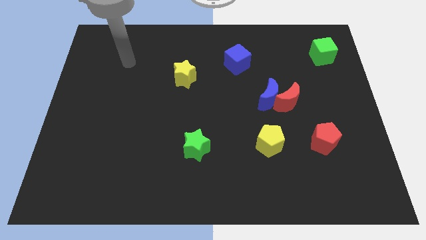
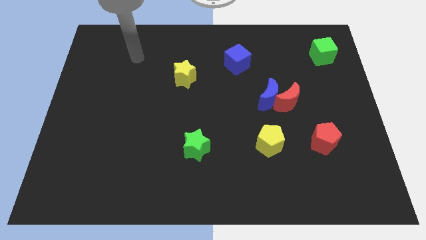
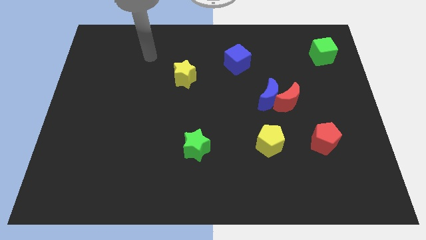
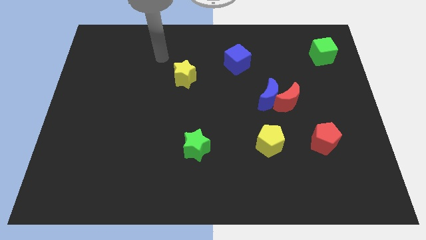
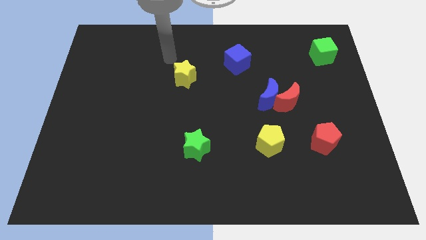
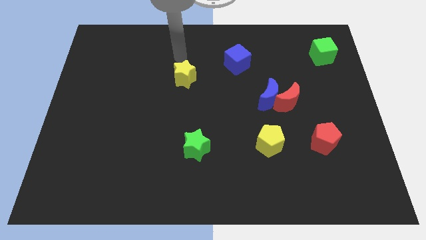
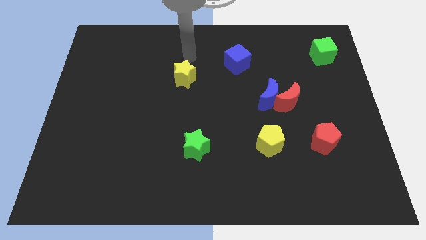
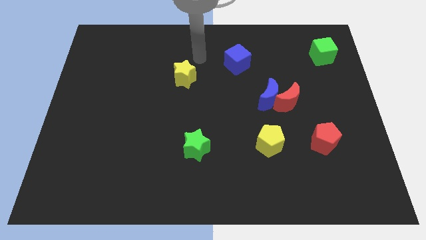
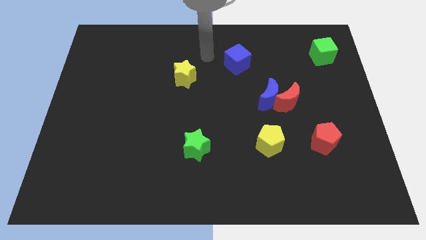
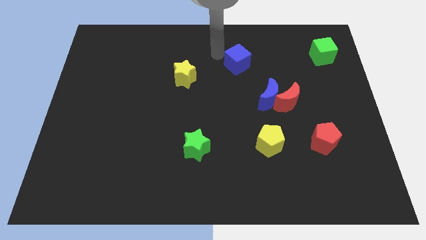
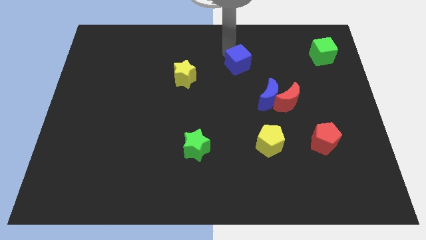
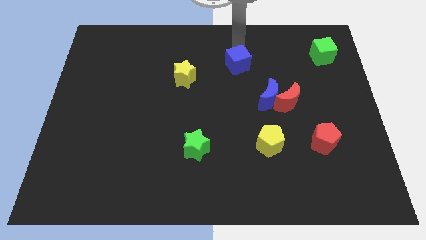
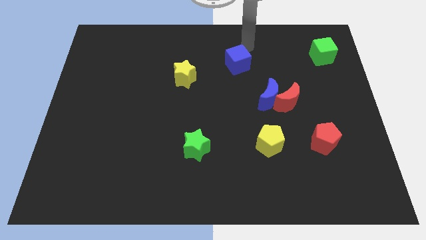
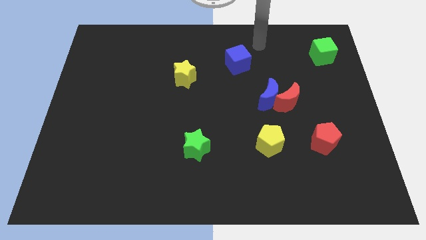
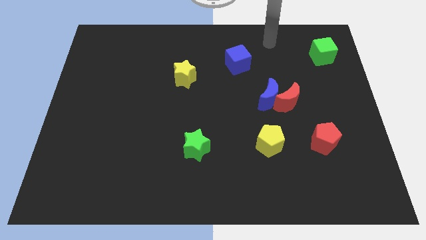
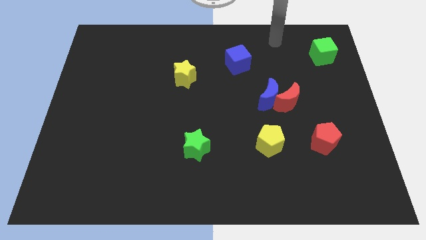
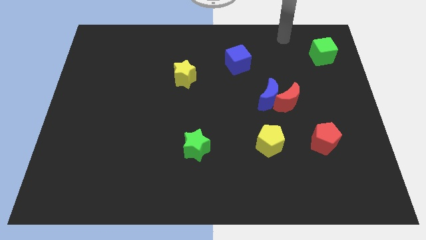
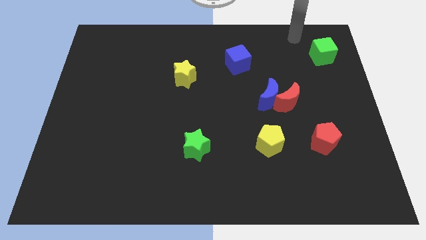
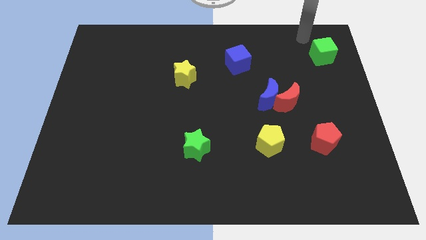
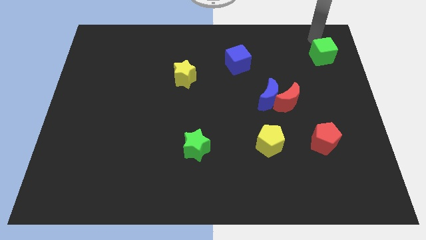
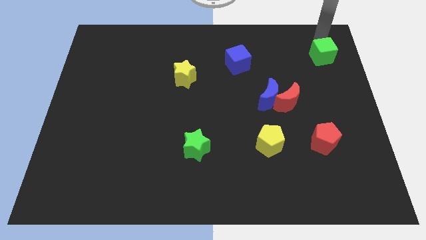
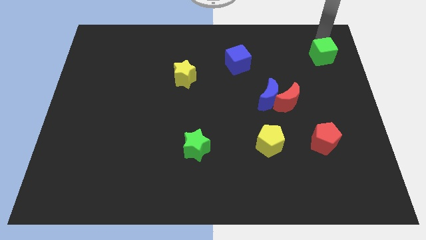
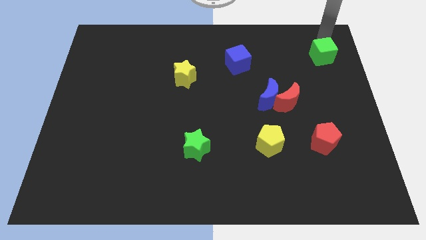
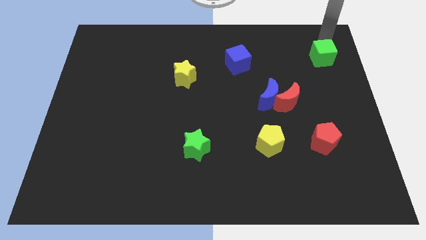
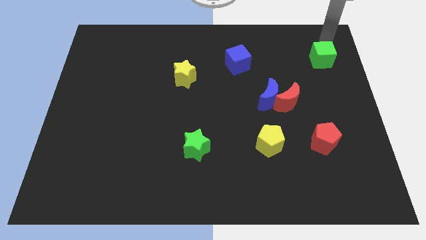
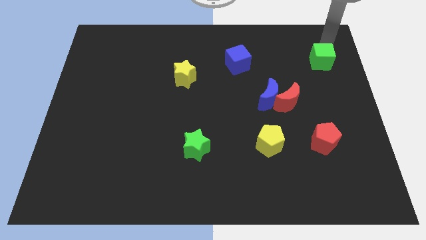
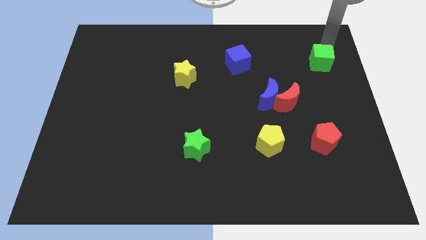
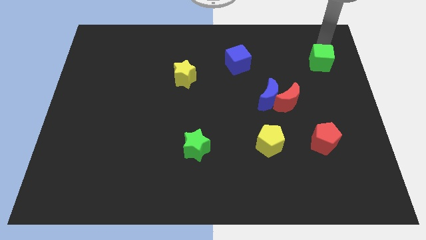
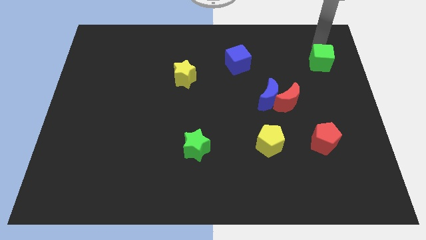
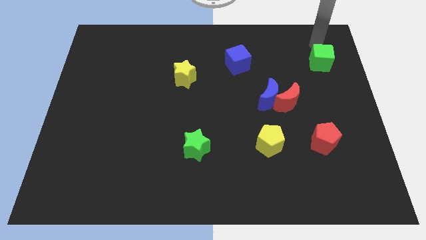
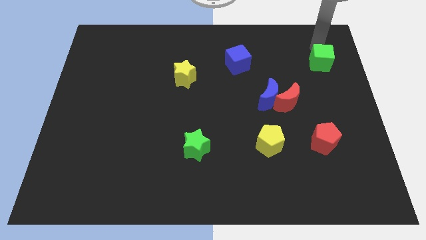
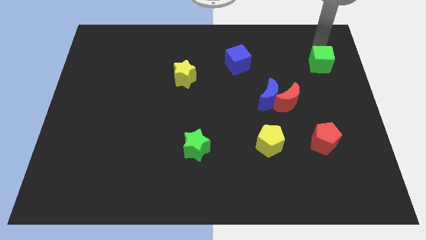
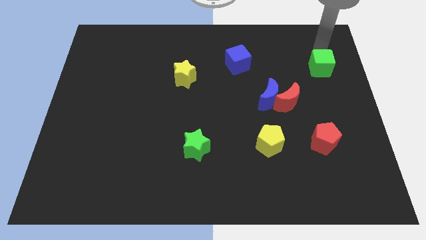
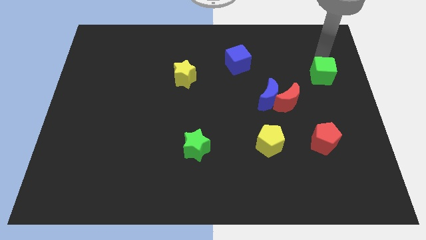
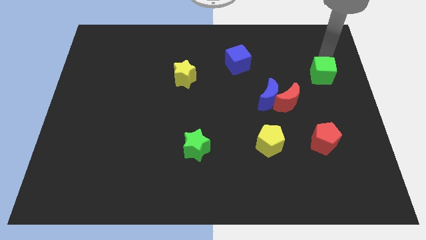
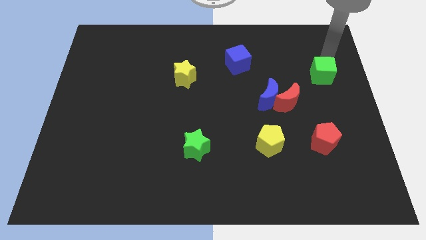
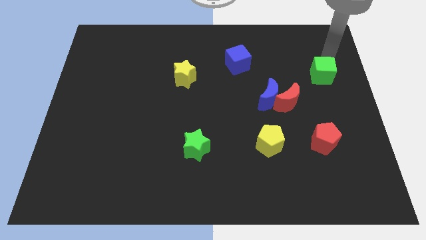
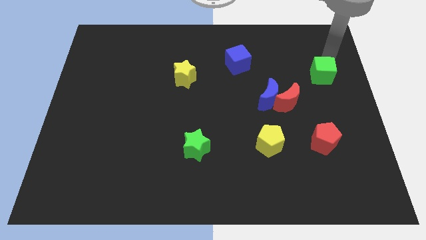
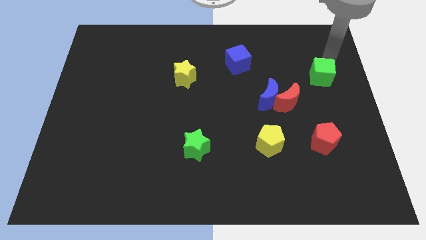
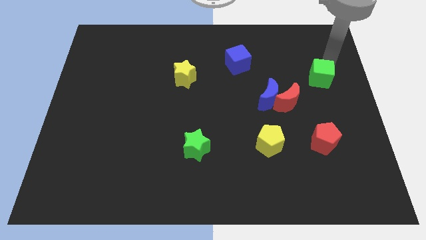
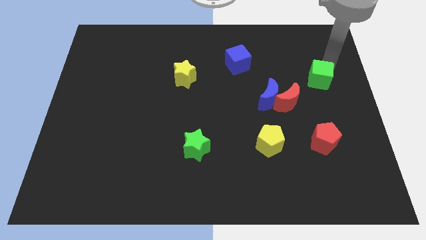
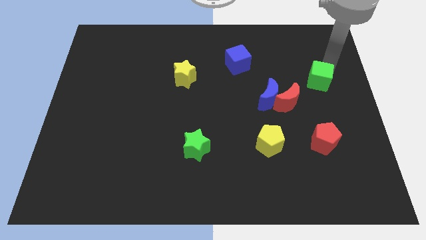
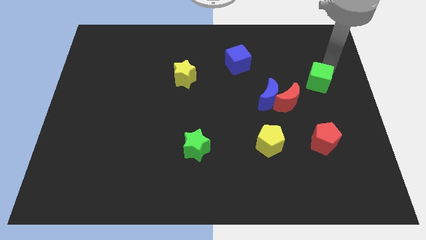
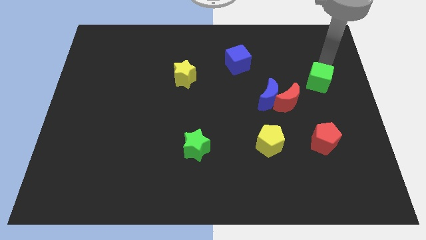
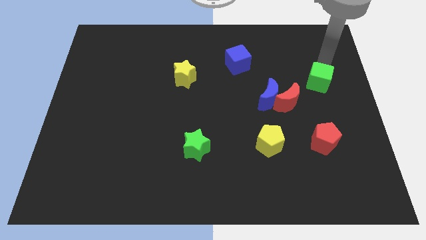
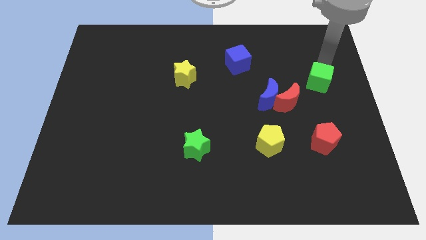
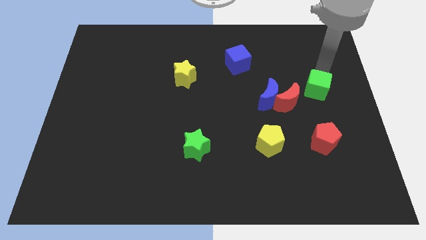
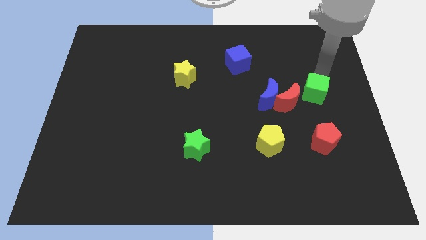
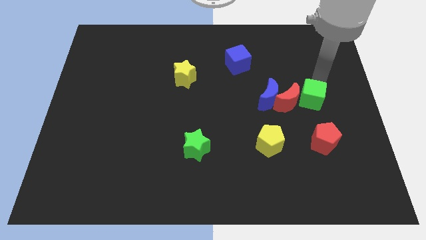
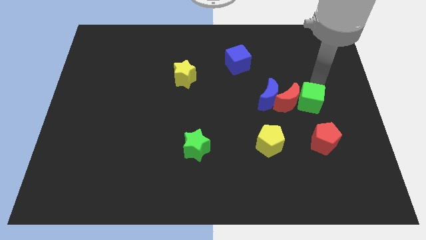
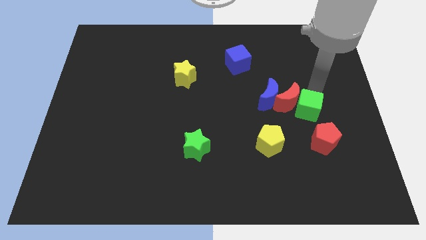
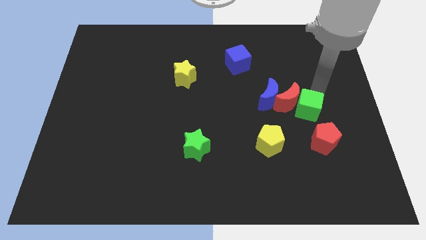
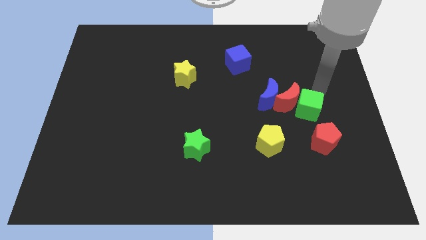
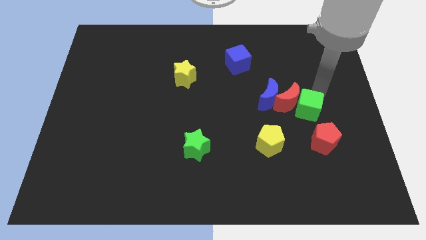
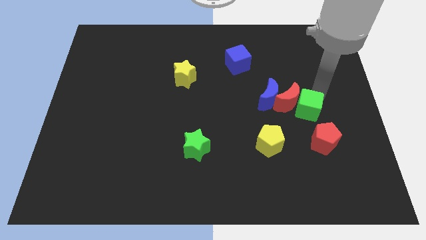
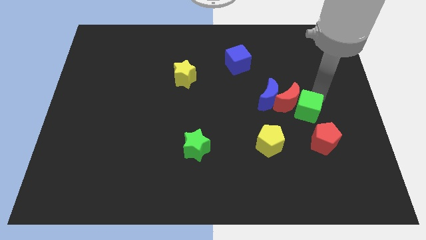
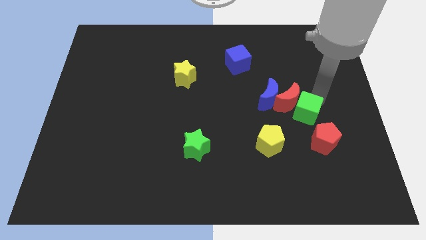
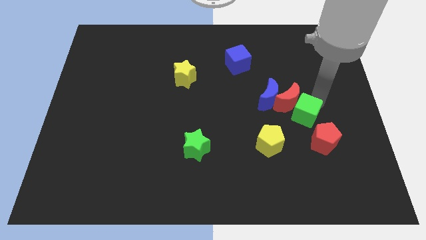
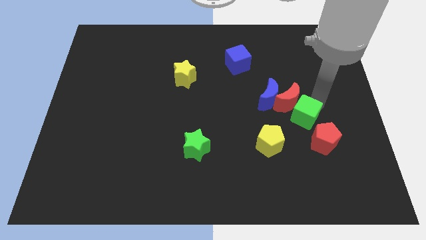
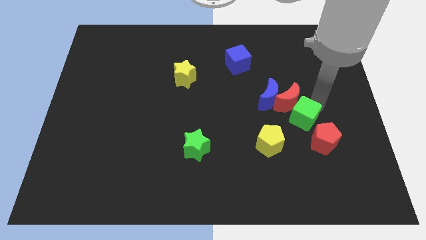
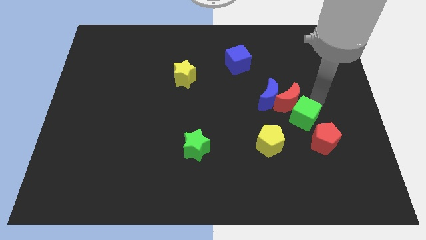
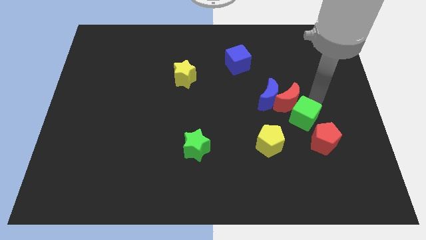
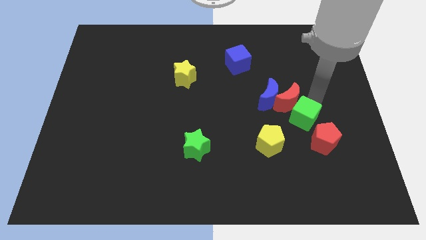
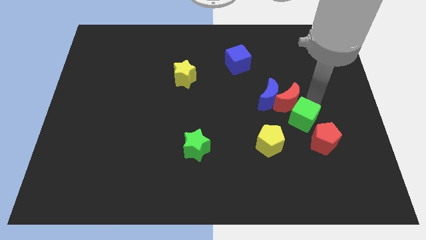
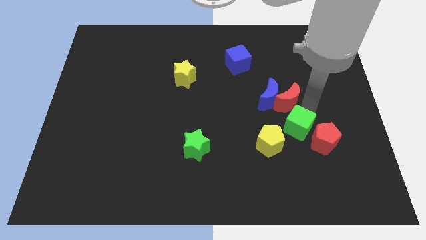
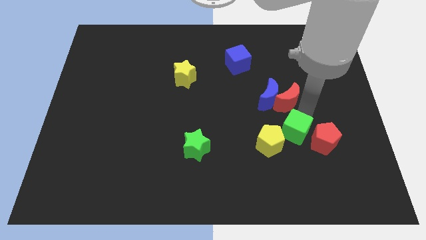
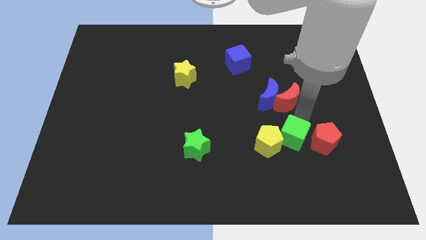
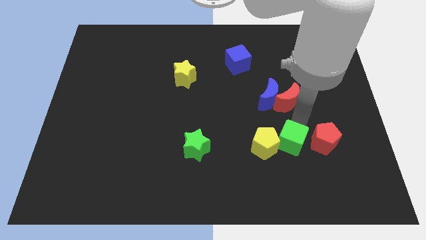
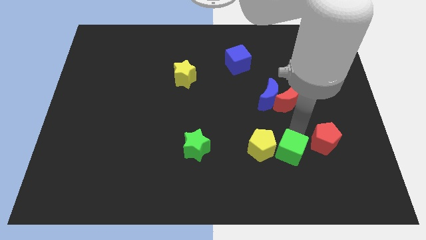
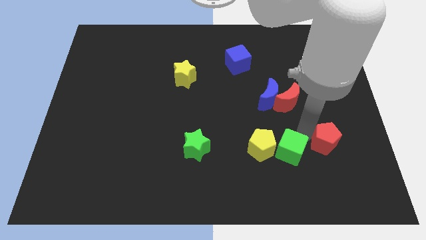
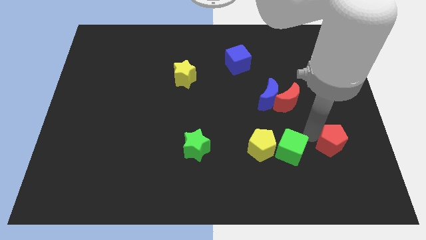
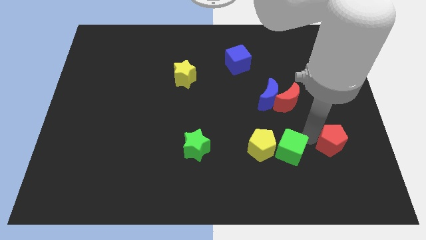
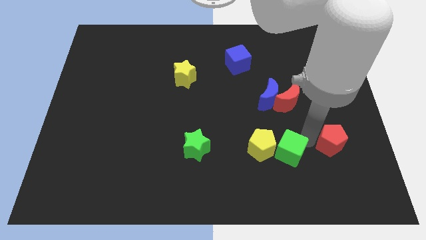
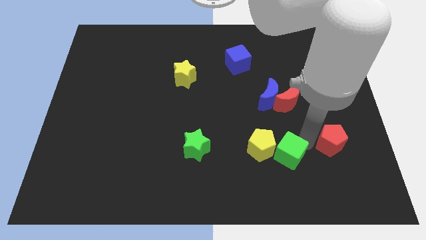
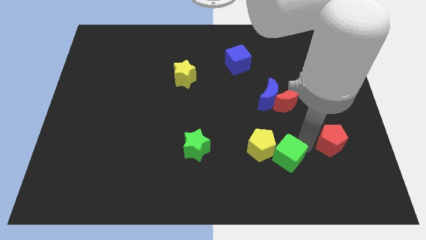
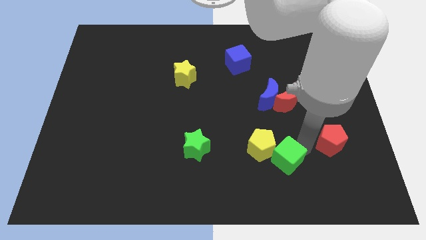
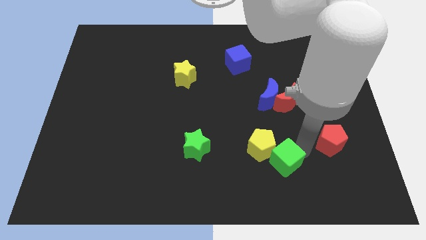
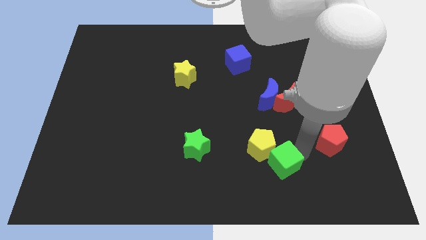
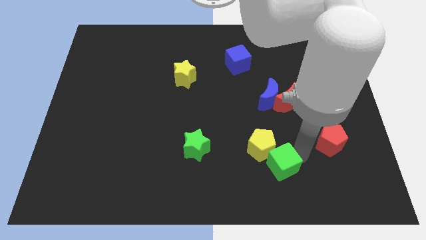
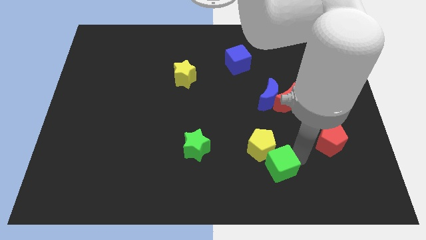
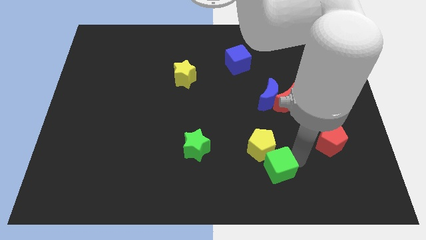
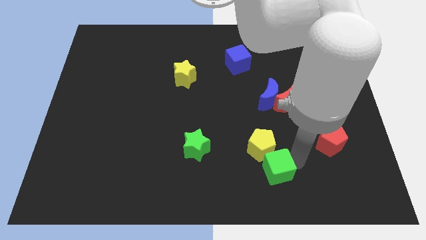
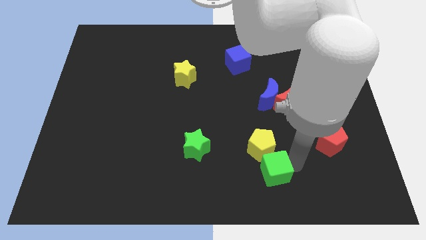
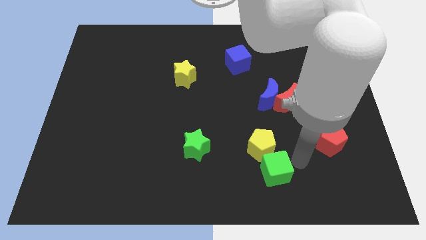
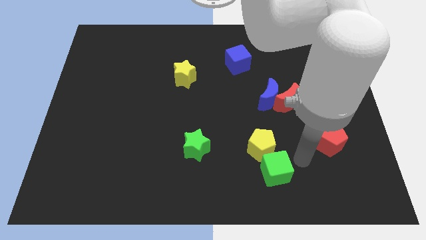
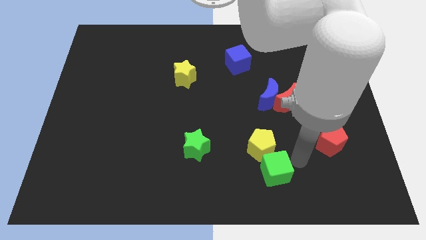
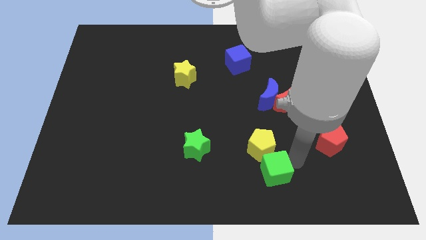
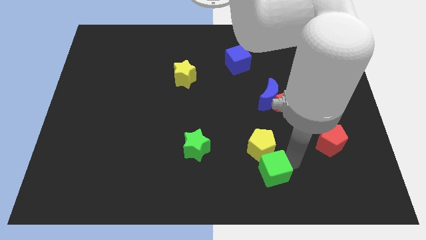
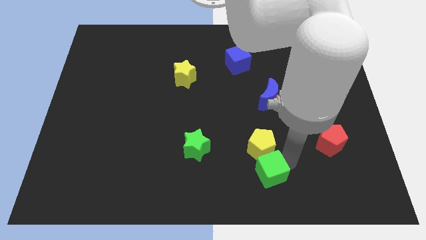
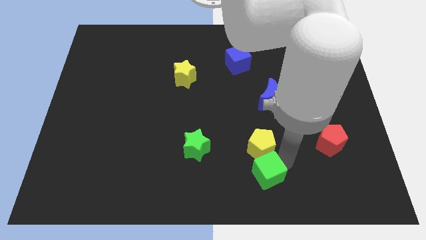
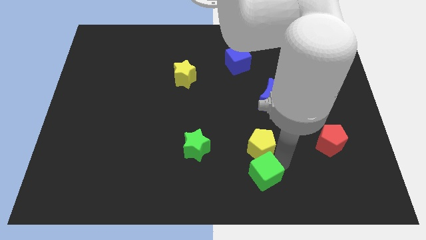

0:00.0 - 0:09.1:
push the green cube to the bottom
